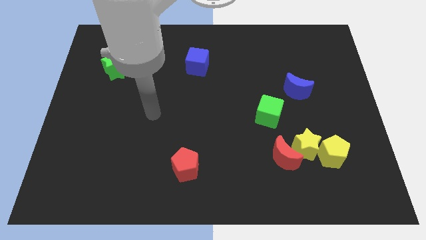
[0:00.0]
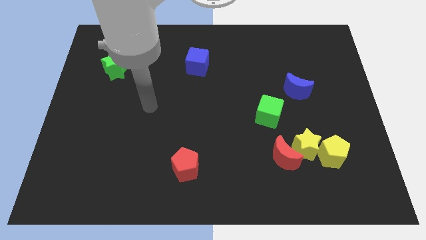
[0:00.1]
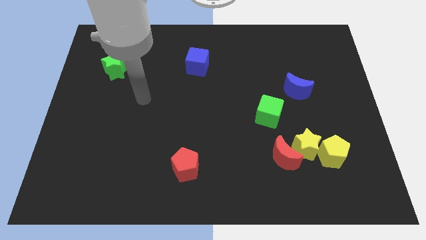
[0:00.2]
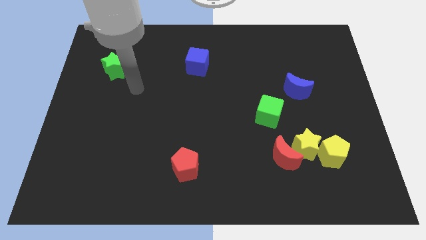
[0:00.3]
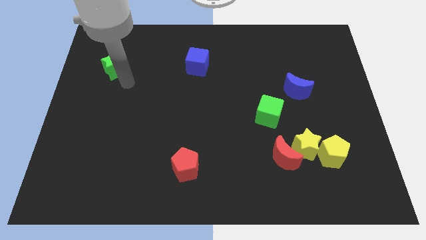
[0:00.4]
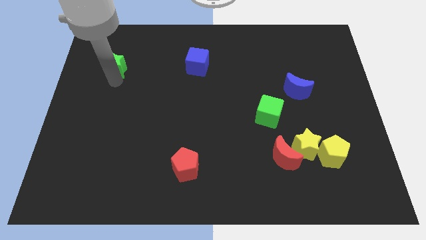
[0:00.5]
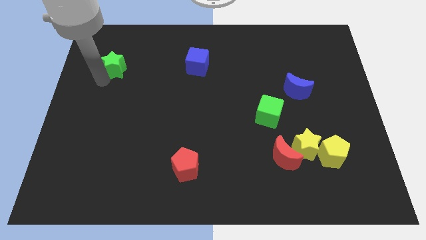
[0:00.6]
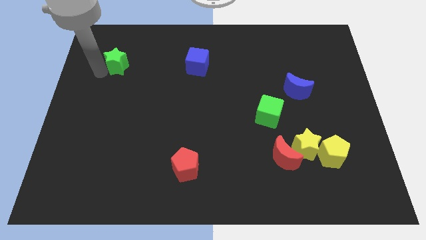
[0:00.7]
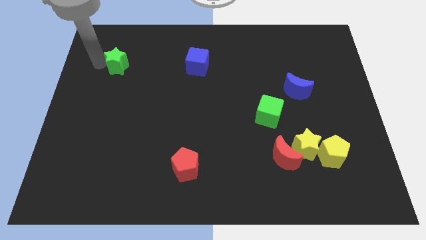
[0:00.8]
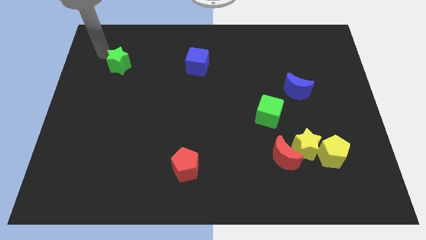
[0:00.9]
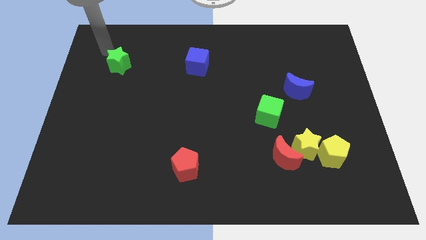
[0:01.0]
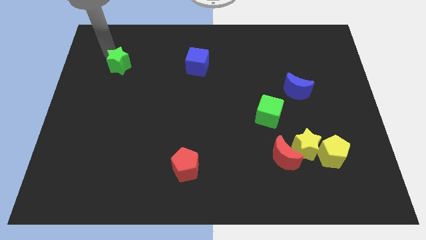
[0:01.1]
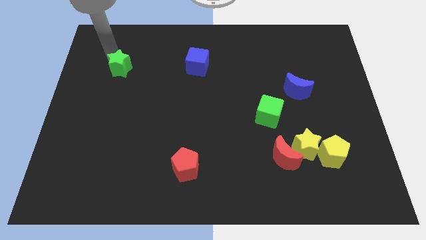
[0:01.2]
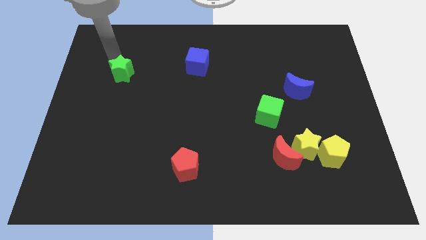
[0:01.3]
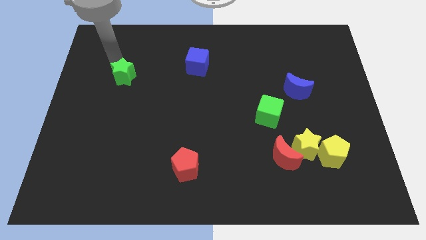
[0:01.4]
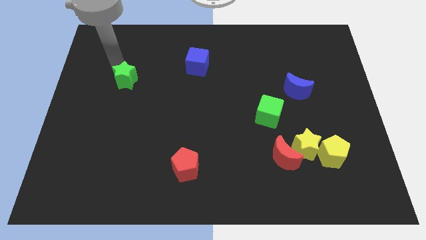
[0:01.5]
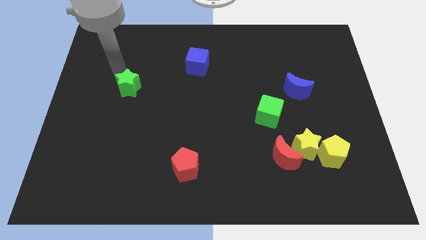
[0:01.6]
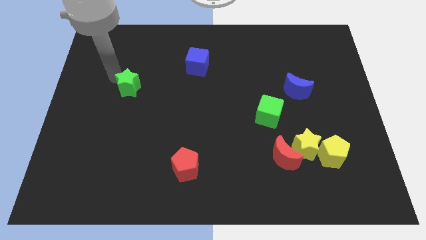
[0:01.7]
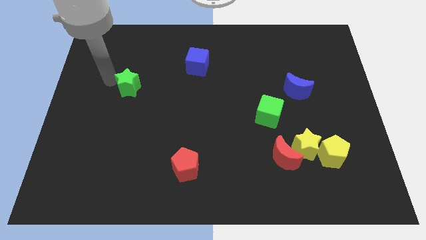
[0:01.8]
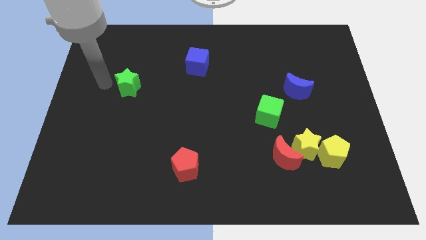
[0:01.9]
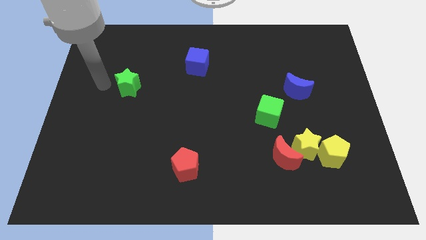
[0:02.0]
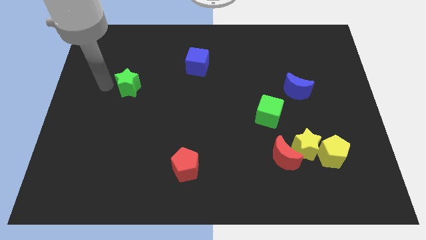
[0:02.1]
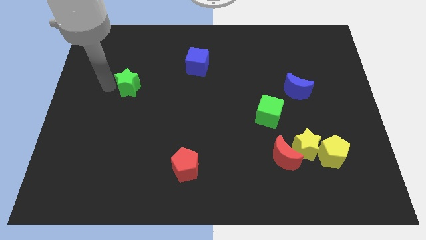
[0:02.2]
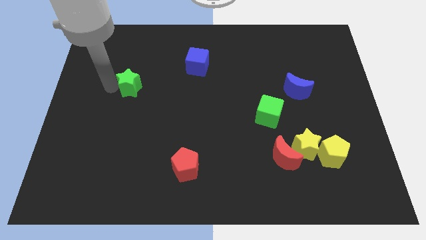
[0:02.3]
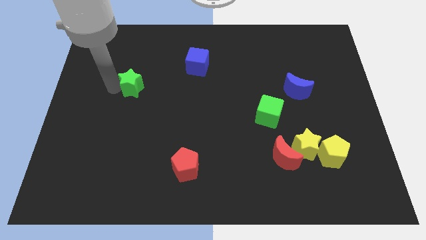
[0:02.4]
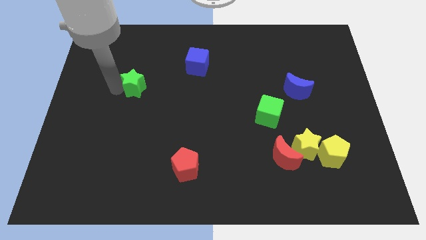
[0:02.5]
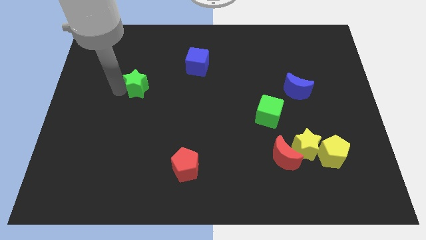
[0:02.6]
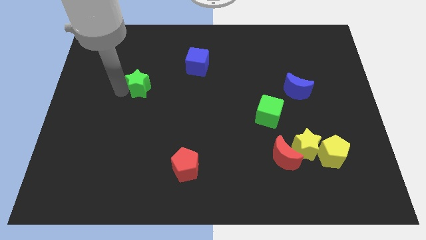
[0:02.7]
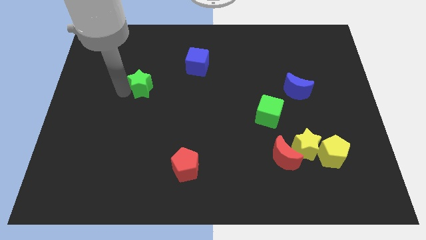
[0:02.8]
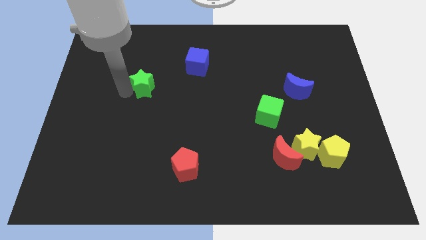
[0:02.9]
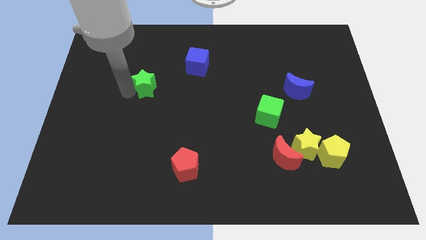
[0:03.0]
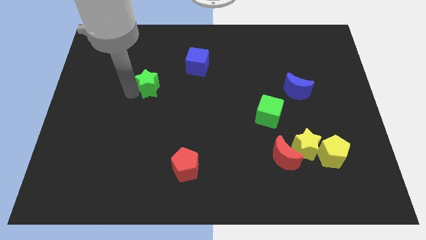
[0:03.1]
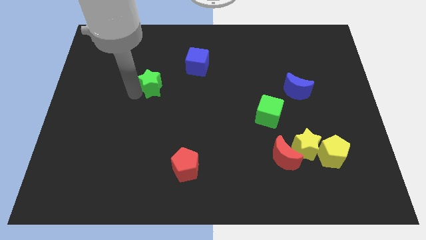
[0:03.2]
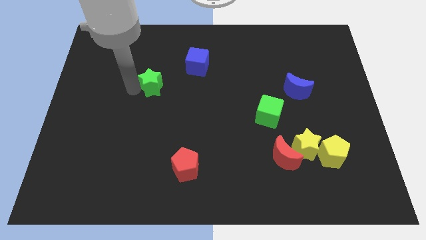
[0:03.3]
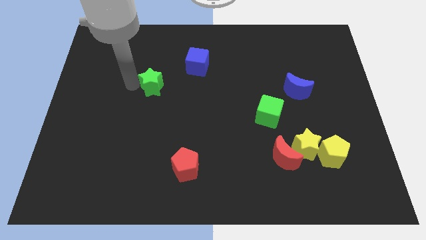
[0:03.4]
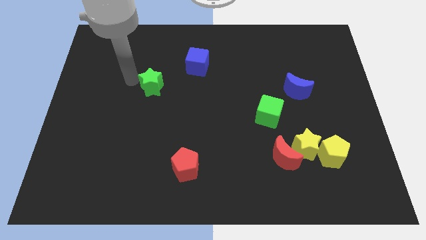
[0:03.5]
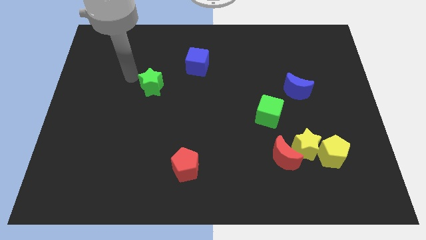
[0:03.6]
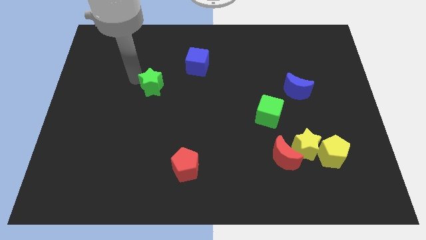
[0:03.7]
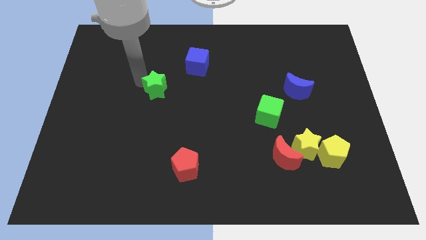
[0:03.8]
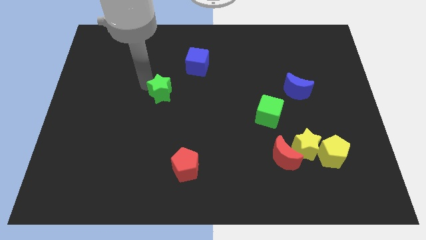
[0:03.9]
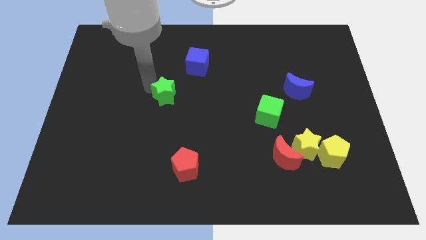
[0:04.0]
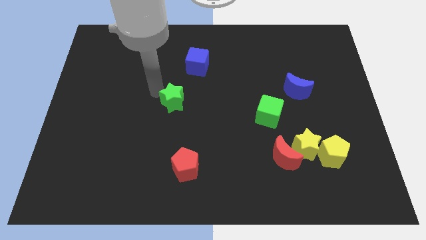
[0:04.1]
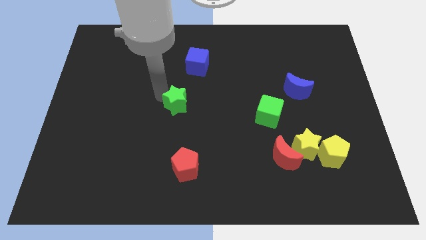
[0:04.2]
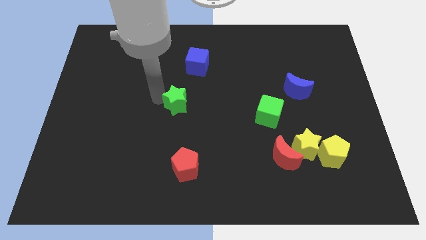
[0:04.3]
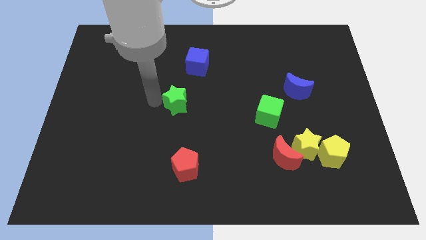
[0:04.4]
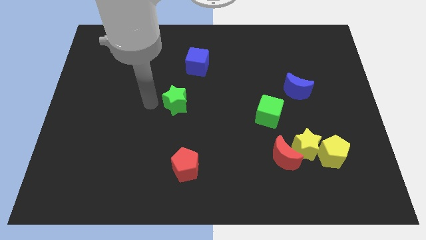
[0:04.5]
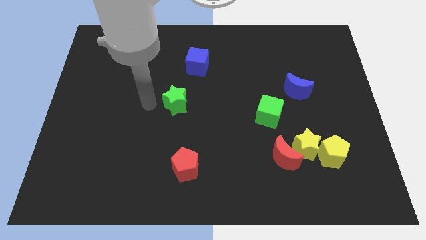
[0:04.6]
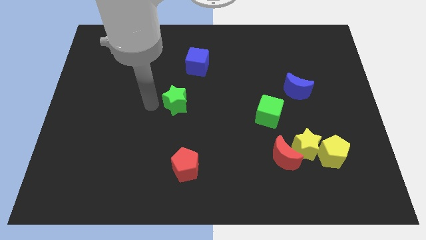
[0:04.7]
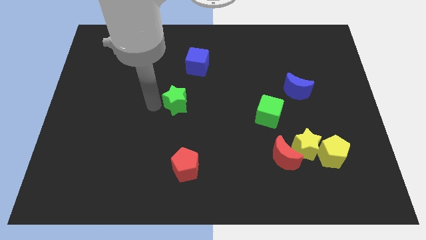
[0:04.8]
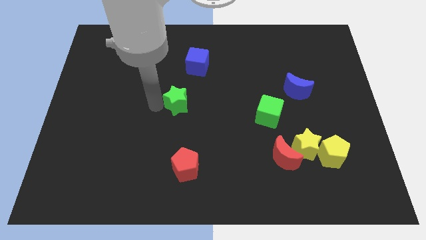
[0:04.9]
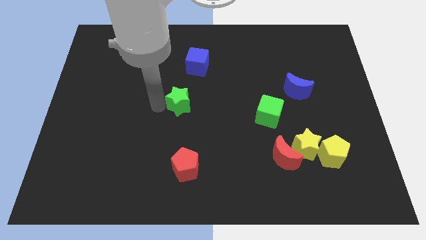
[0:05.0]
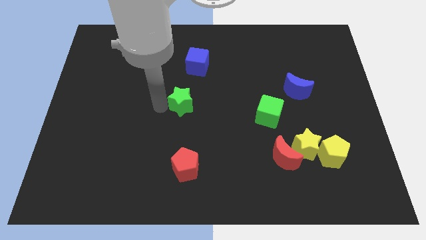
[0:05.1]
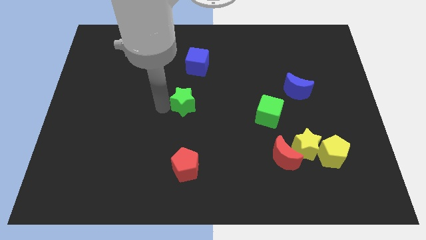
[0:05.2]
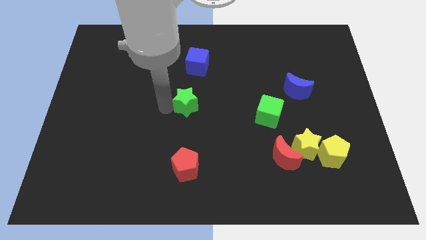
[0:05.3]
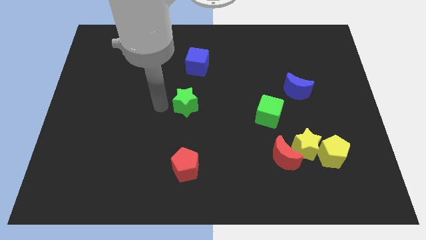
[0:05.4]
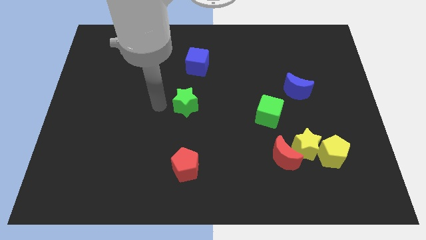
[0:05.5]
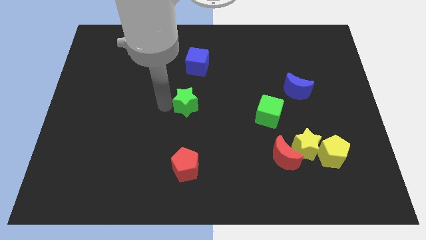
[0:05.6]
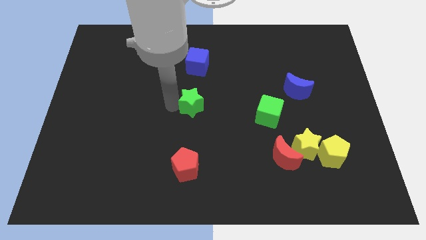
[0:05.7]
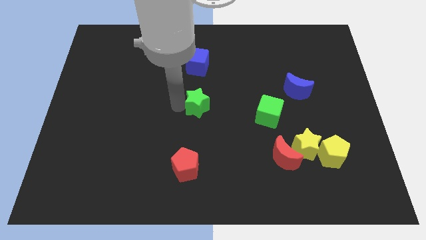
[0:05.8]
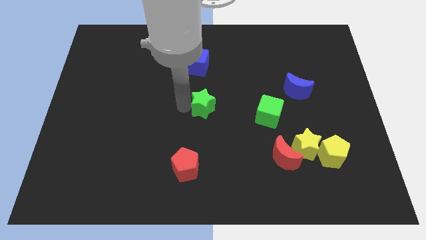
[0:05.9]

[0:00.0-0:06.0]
slide the green star just left of the green cube
